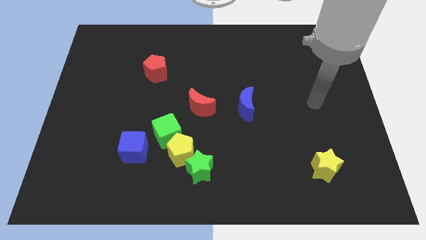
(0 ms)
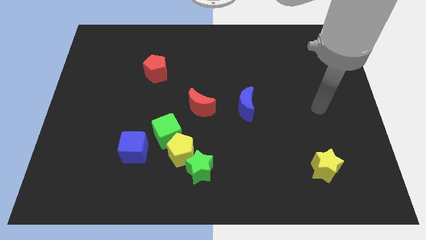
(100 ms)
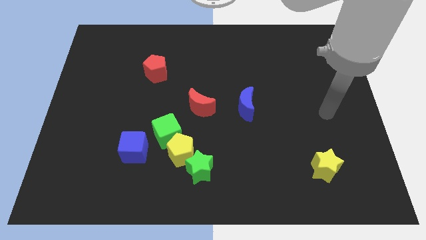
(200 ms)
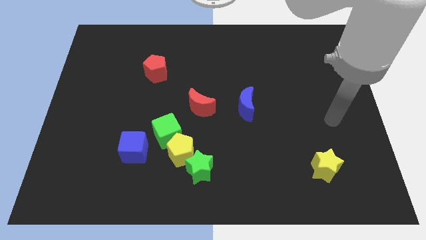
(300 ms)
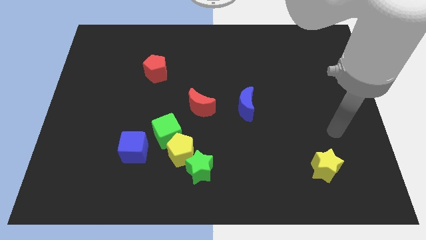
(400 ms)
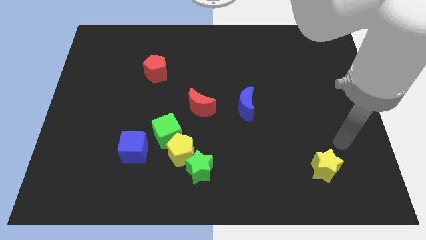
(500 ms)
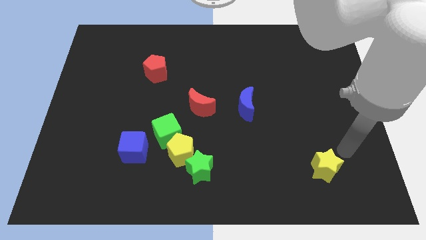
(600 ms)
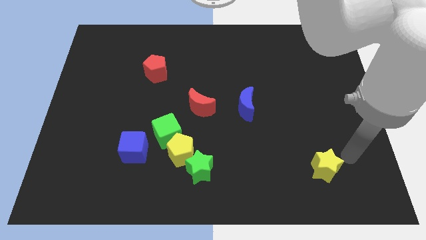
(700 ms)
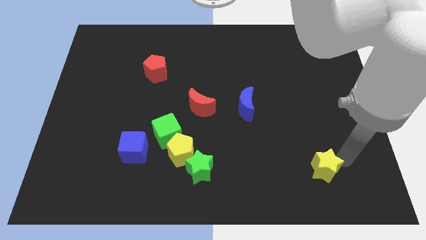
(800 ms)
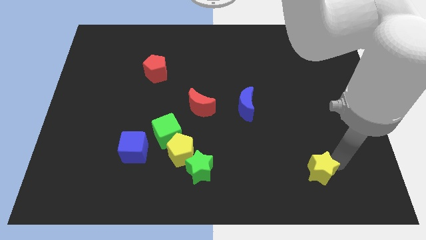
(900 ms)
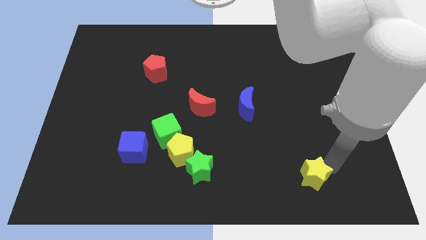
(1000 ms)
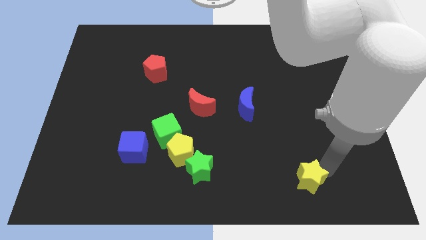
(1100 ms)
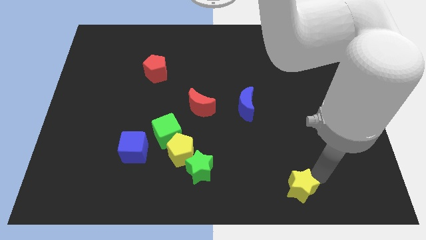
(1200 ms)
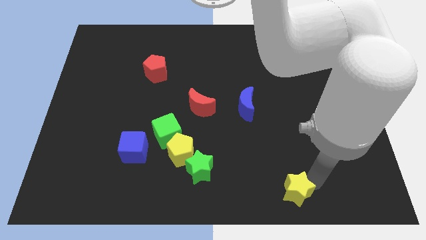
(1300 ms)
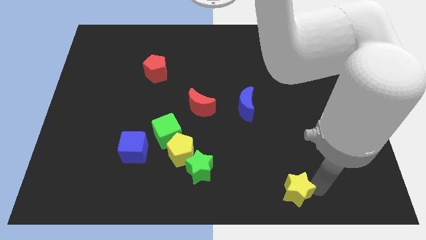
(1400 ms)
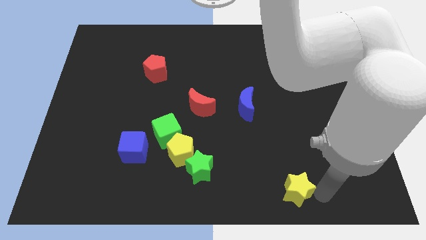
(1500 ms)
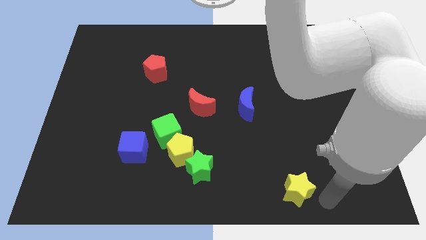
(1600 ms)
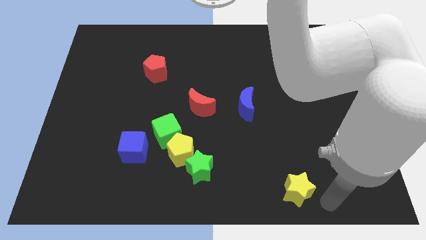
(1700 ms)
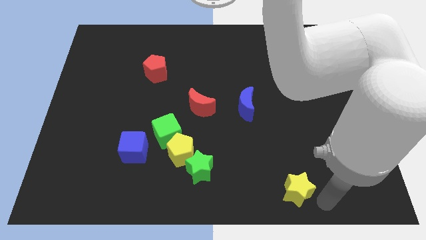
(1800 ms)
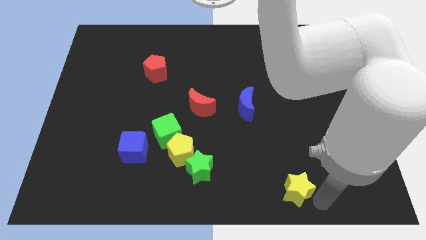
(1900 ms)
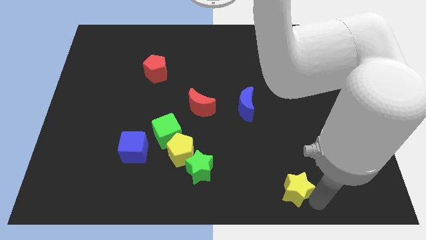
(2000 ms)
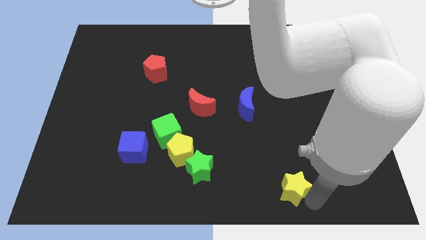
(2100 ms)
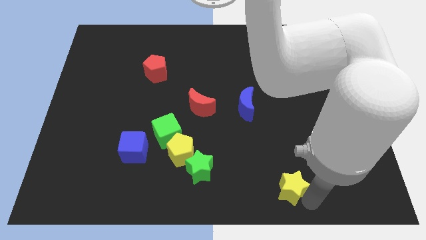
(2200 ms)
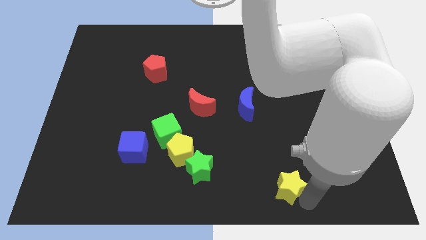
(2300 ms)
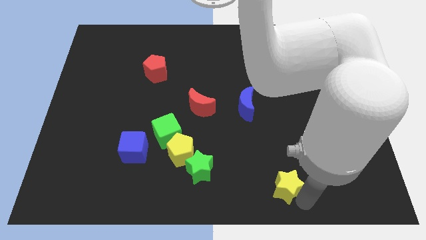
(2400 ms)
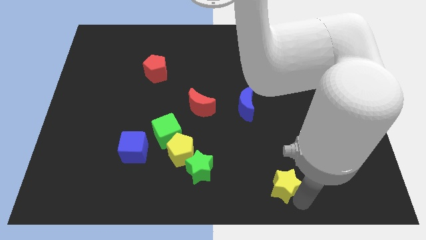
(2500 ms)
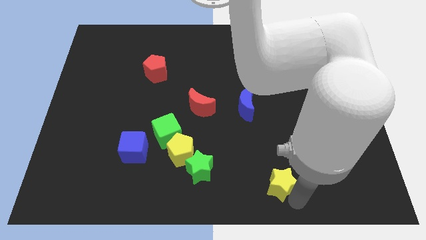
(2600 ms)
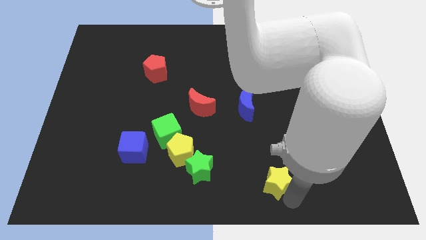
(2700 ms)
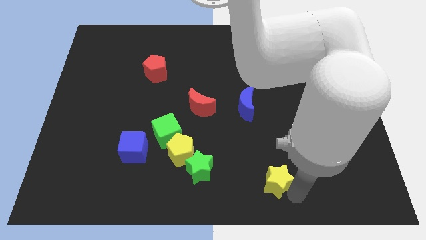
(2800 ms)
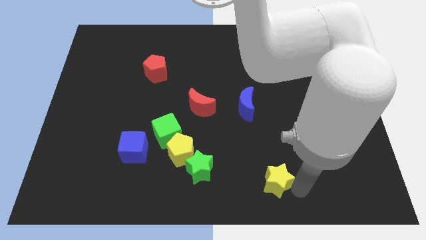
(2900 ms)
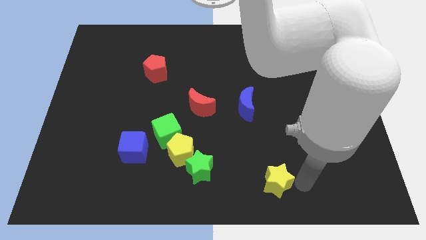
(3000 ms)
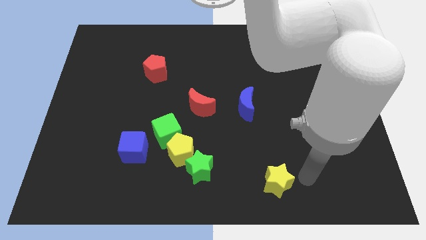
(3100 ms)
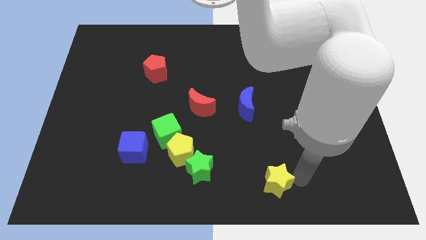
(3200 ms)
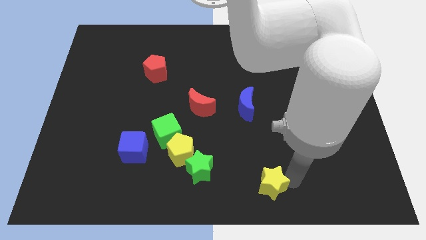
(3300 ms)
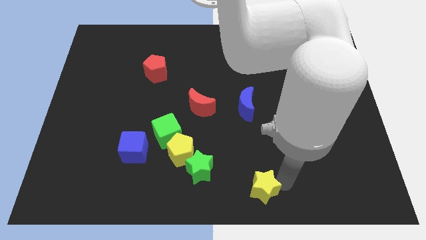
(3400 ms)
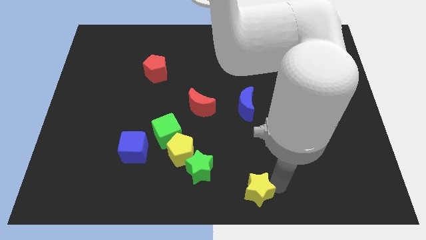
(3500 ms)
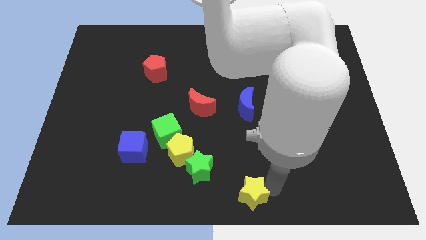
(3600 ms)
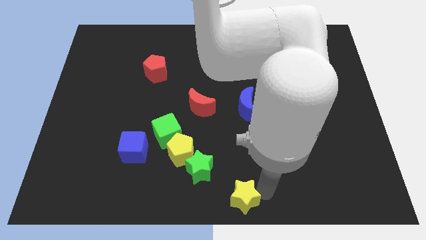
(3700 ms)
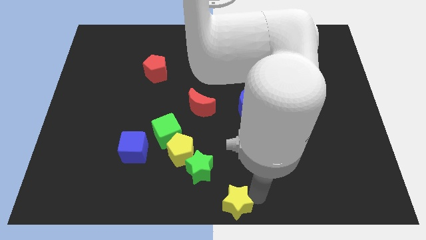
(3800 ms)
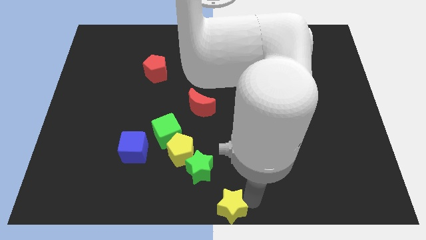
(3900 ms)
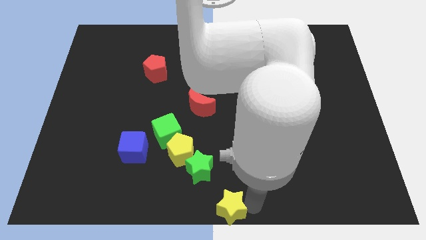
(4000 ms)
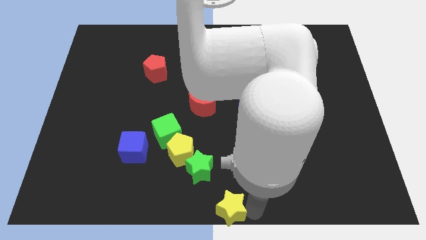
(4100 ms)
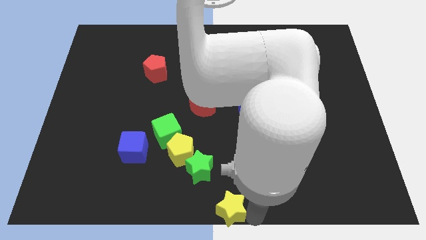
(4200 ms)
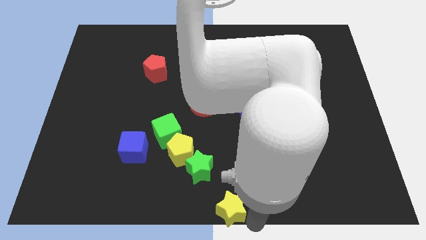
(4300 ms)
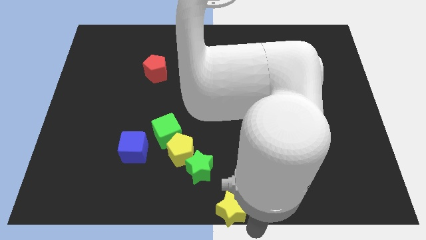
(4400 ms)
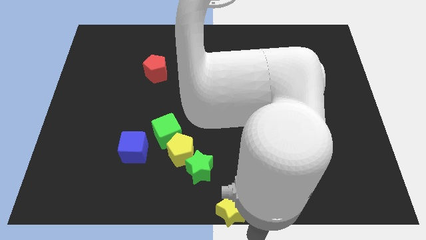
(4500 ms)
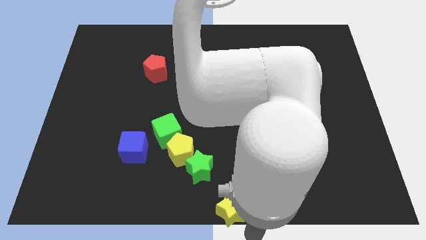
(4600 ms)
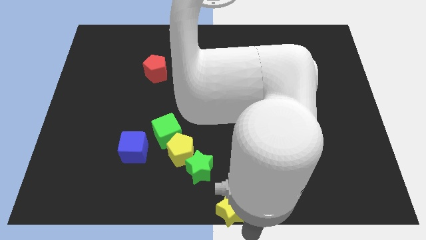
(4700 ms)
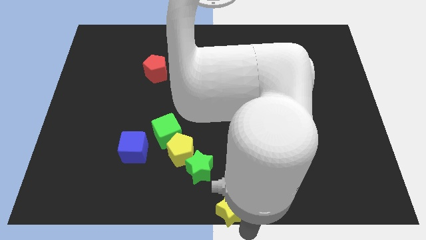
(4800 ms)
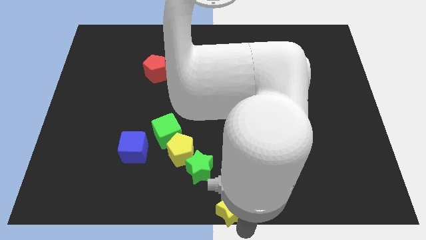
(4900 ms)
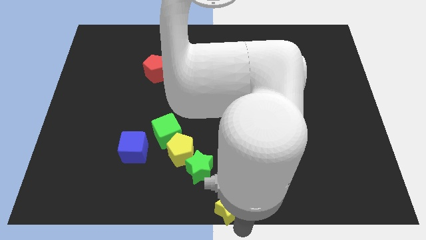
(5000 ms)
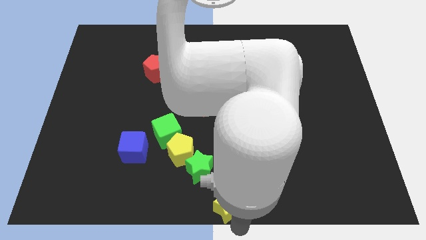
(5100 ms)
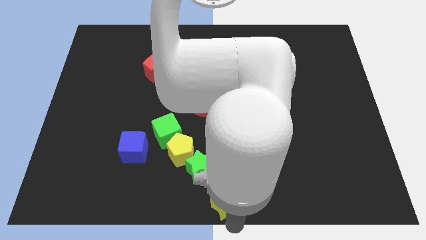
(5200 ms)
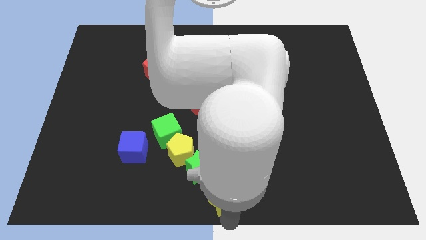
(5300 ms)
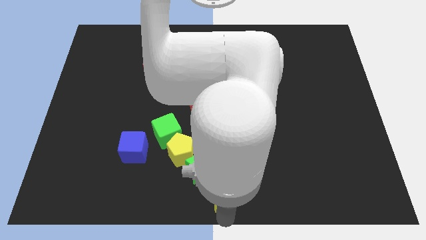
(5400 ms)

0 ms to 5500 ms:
push the yellow star left

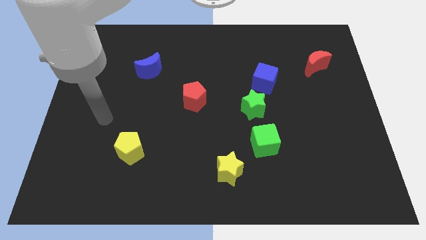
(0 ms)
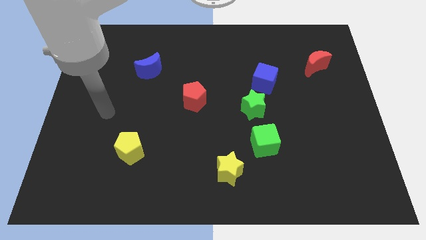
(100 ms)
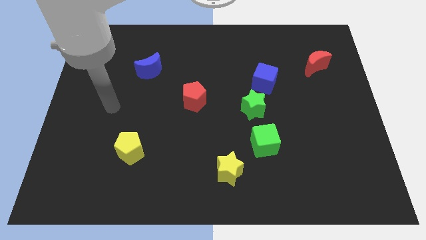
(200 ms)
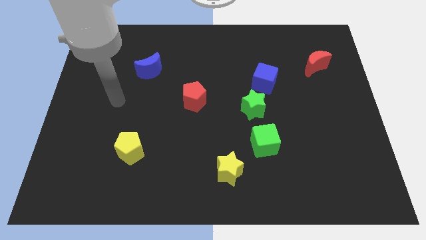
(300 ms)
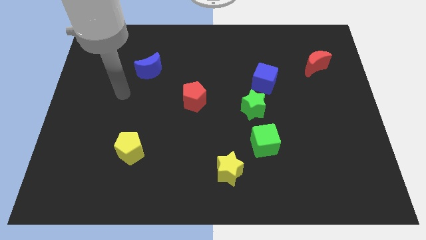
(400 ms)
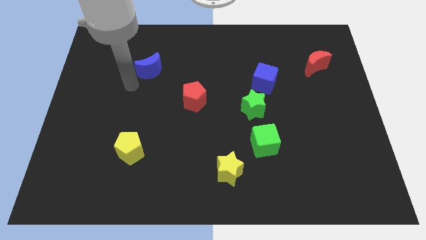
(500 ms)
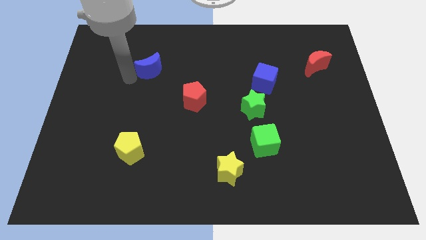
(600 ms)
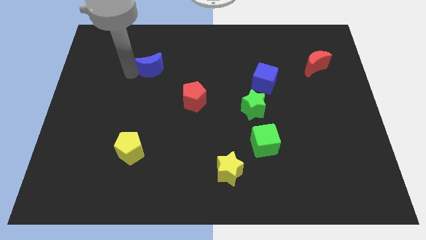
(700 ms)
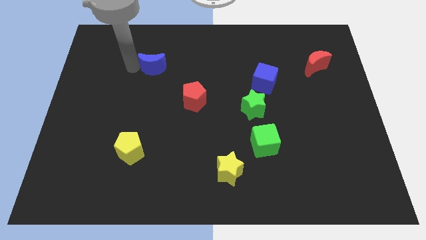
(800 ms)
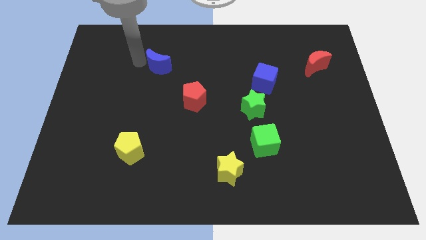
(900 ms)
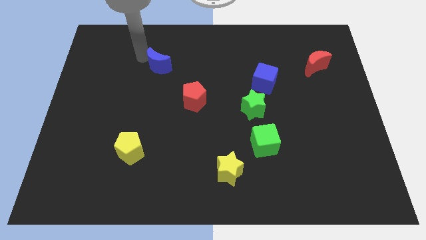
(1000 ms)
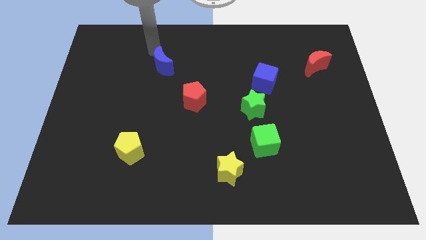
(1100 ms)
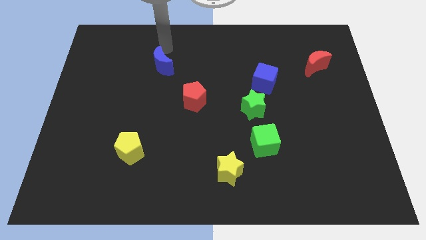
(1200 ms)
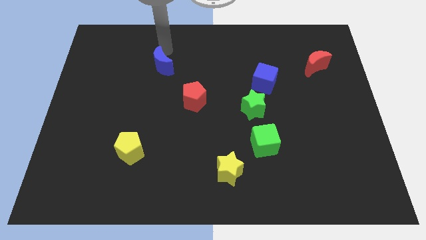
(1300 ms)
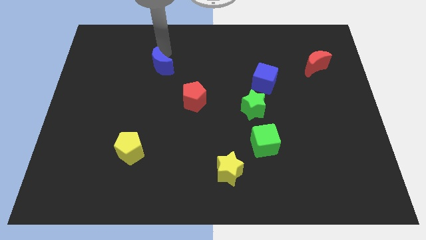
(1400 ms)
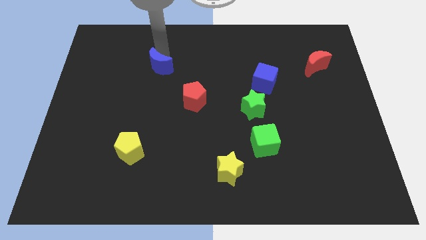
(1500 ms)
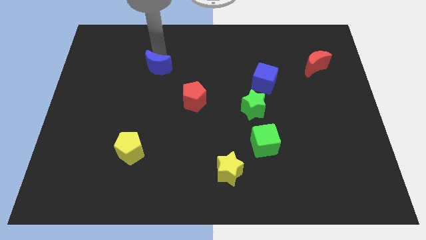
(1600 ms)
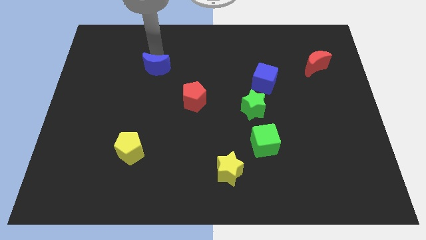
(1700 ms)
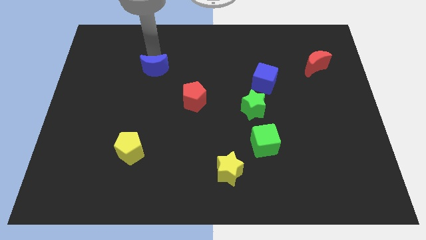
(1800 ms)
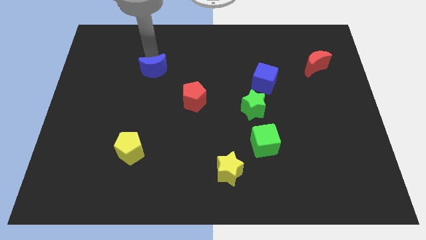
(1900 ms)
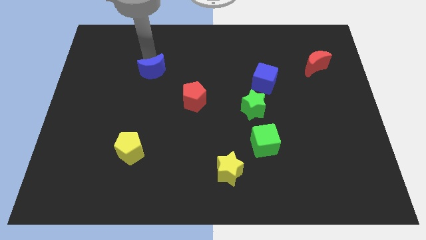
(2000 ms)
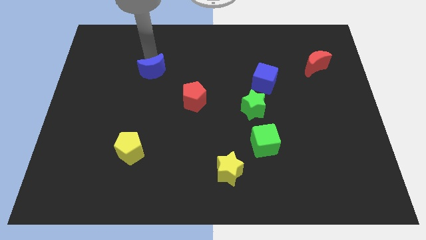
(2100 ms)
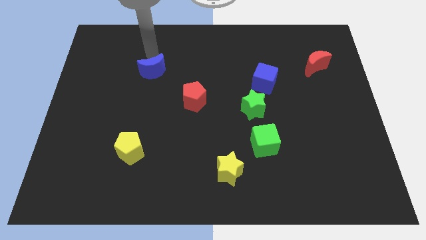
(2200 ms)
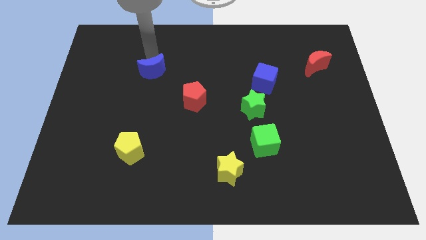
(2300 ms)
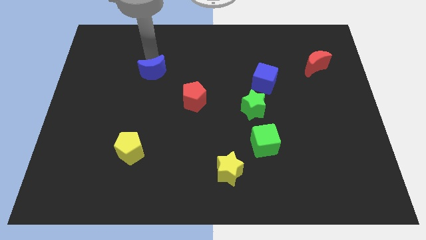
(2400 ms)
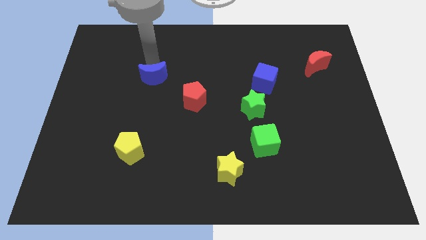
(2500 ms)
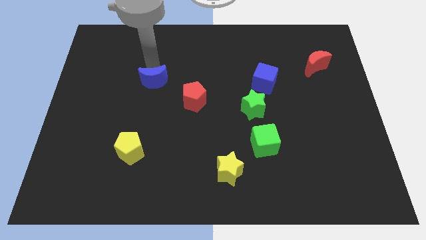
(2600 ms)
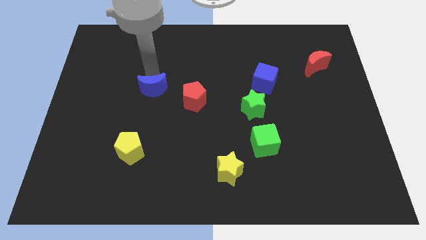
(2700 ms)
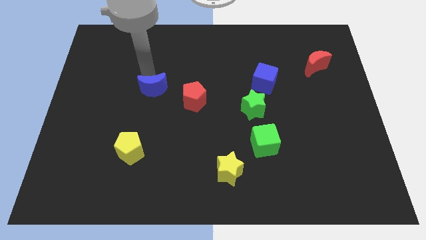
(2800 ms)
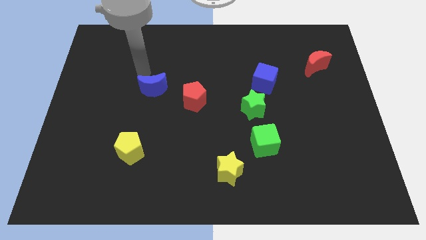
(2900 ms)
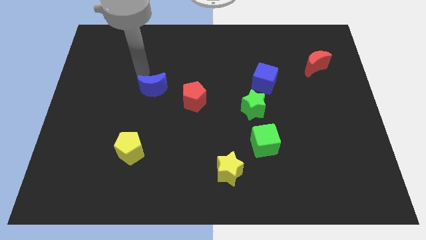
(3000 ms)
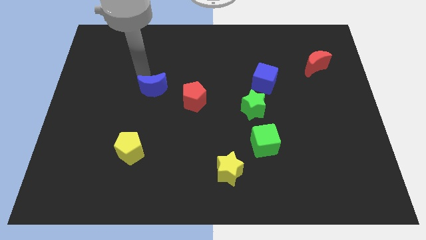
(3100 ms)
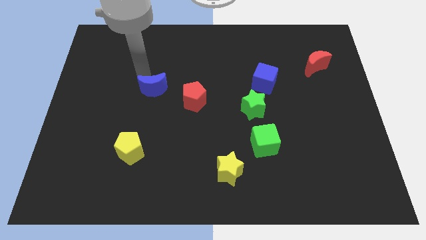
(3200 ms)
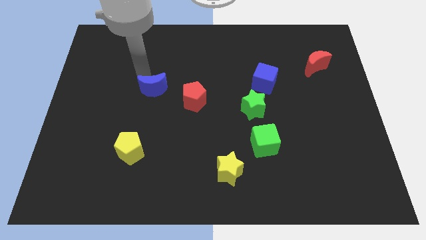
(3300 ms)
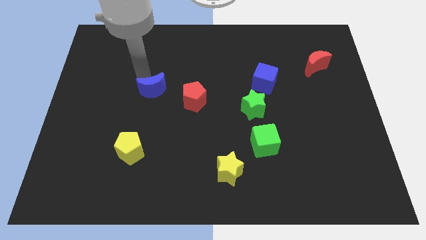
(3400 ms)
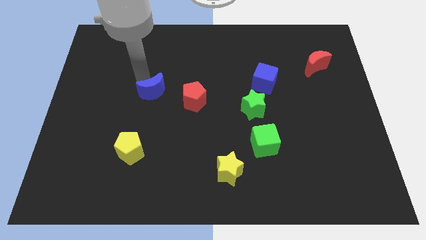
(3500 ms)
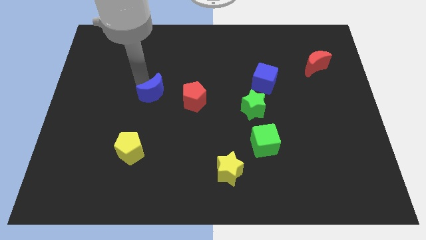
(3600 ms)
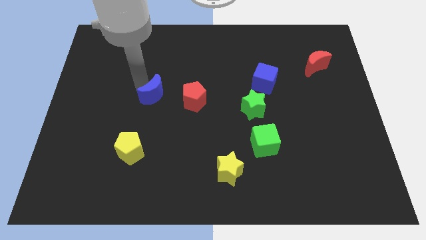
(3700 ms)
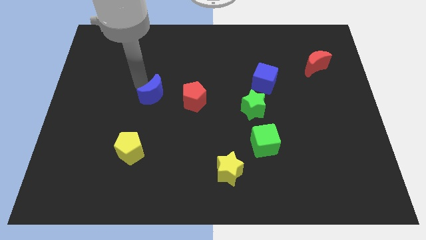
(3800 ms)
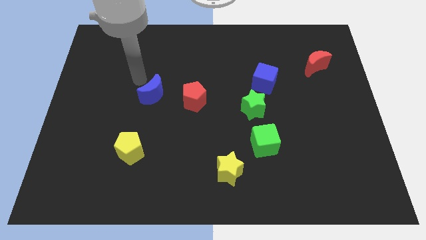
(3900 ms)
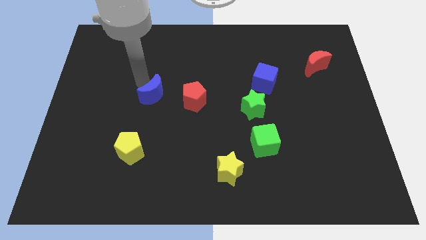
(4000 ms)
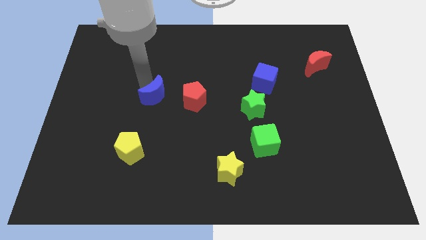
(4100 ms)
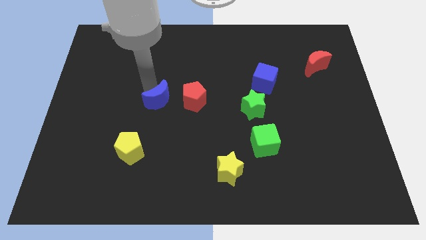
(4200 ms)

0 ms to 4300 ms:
slightly move the blue moon downwards and right
